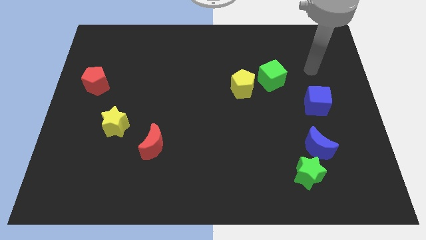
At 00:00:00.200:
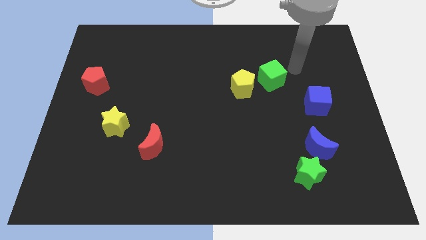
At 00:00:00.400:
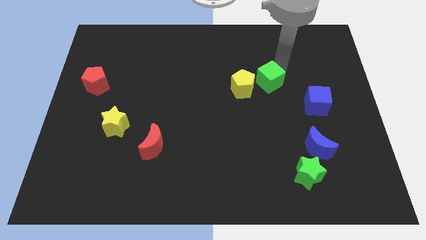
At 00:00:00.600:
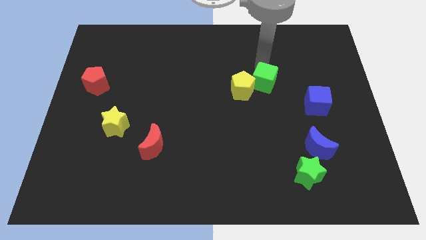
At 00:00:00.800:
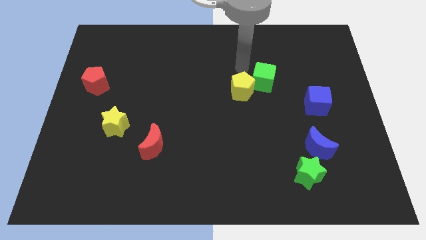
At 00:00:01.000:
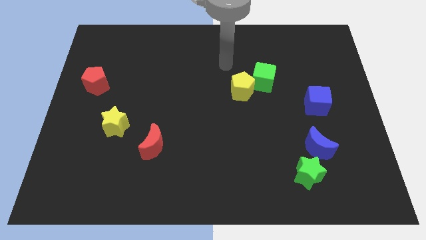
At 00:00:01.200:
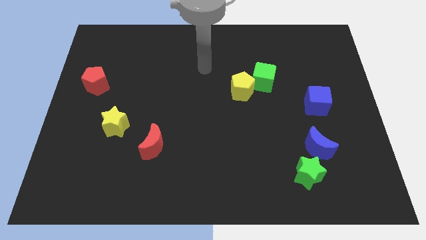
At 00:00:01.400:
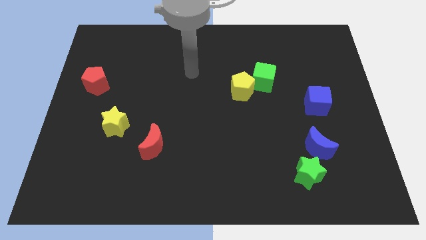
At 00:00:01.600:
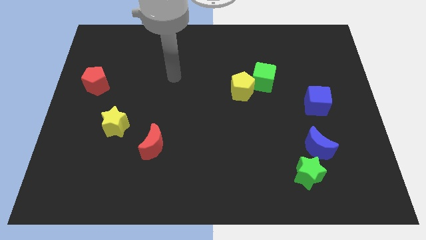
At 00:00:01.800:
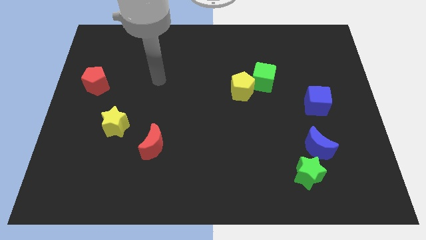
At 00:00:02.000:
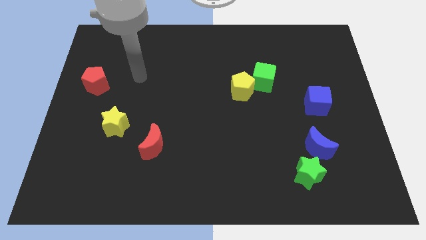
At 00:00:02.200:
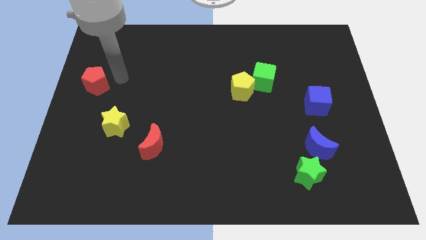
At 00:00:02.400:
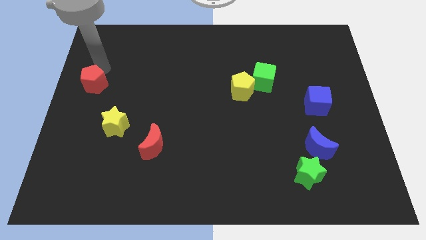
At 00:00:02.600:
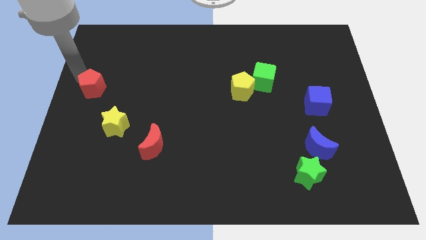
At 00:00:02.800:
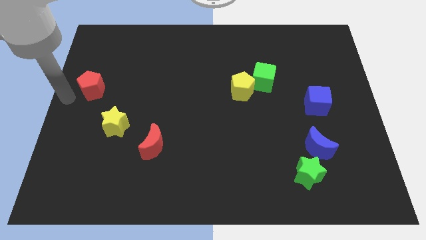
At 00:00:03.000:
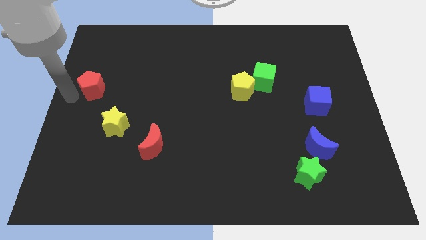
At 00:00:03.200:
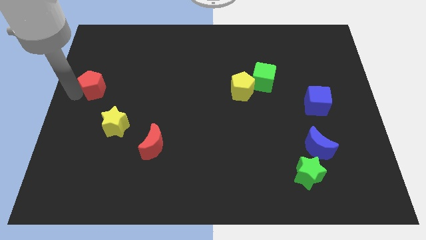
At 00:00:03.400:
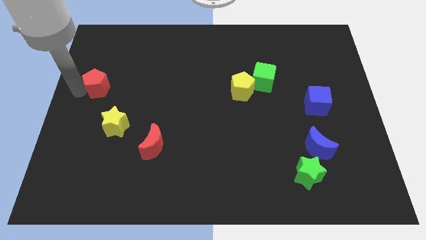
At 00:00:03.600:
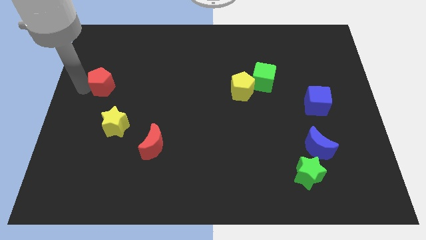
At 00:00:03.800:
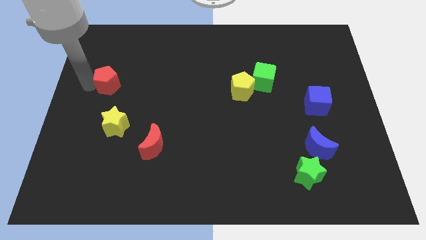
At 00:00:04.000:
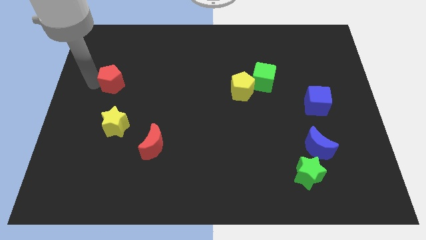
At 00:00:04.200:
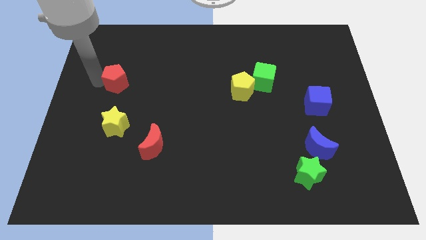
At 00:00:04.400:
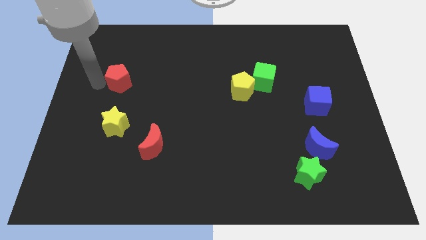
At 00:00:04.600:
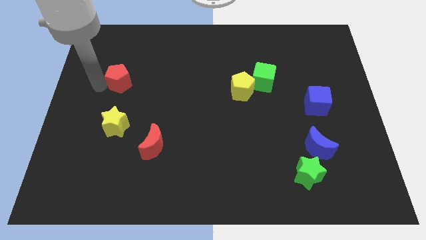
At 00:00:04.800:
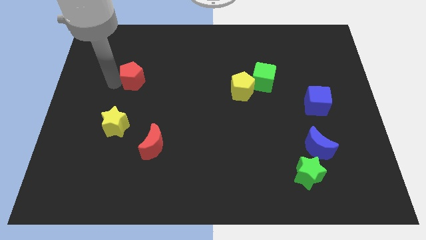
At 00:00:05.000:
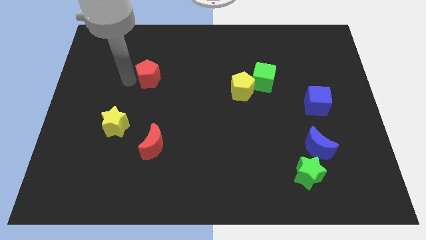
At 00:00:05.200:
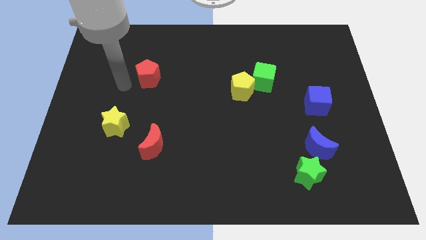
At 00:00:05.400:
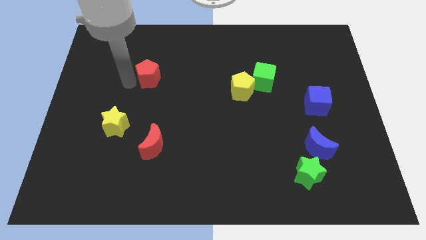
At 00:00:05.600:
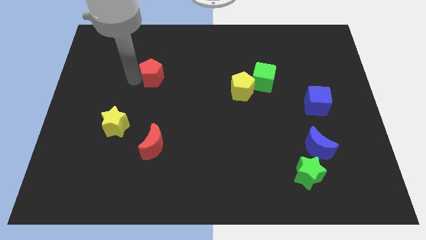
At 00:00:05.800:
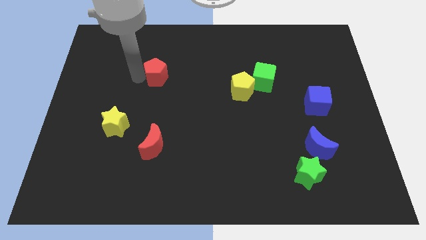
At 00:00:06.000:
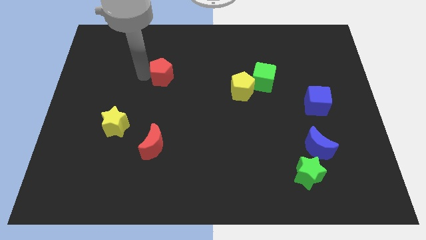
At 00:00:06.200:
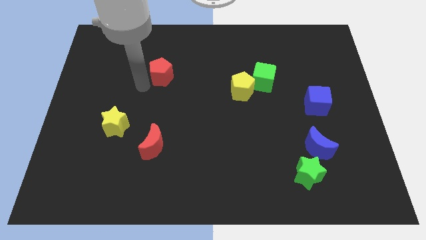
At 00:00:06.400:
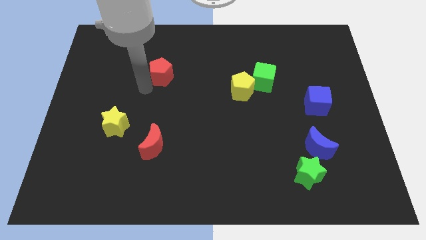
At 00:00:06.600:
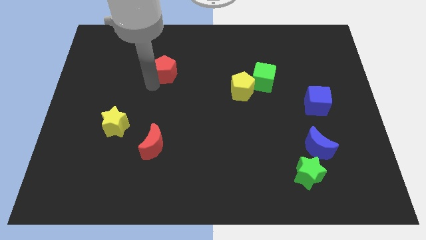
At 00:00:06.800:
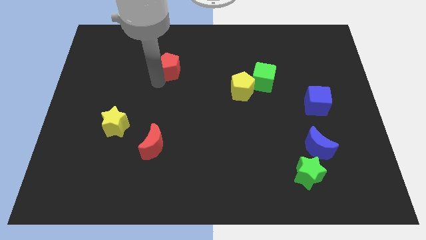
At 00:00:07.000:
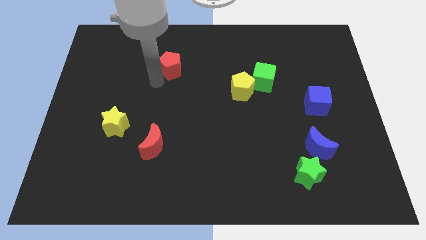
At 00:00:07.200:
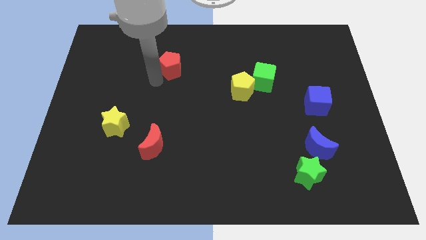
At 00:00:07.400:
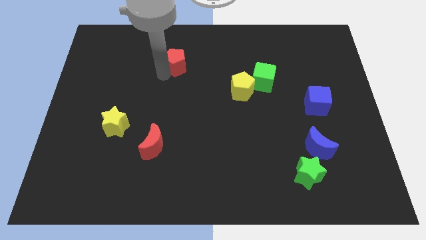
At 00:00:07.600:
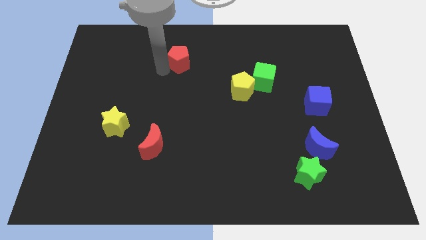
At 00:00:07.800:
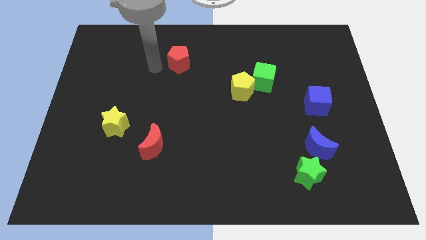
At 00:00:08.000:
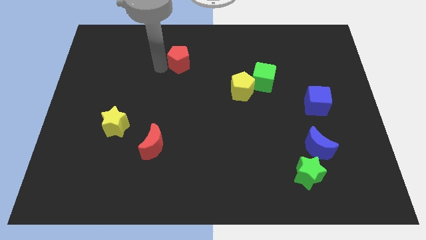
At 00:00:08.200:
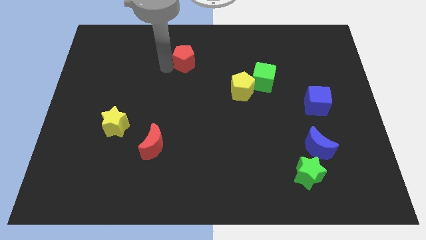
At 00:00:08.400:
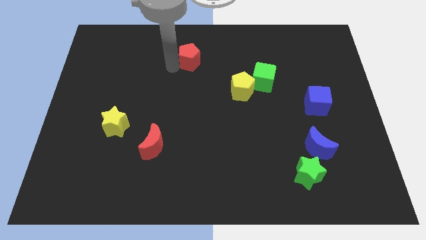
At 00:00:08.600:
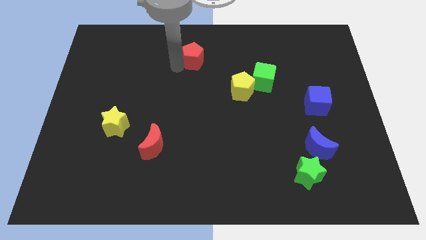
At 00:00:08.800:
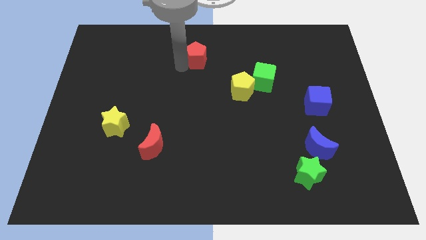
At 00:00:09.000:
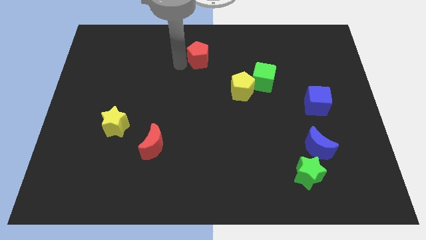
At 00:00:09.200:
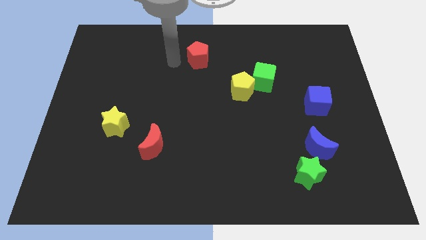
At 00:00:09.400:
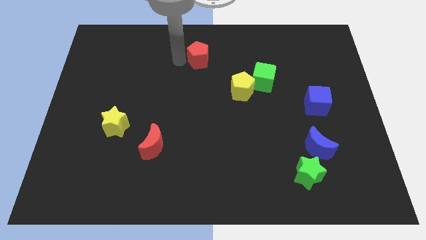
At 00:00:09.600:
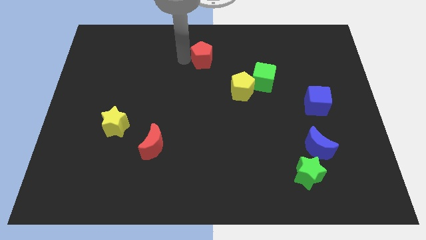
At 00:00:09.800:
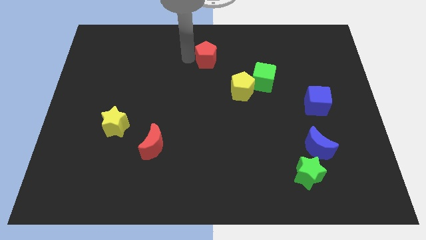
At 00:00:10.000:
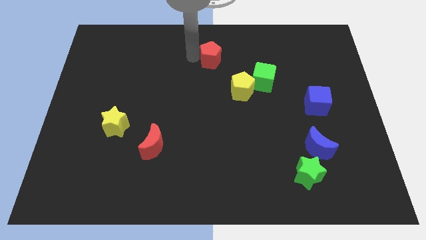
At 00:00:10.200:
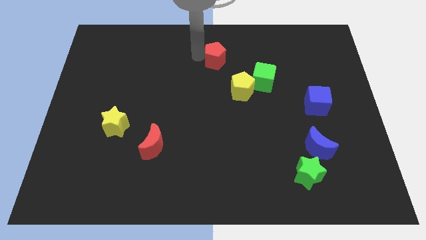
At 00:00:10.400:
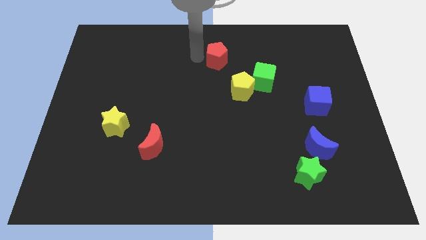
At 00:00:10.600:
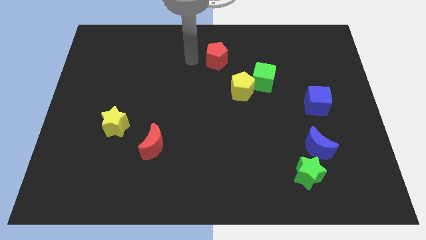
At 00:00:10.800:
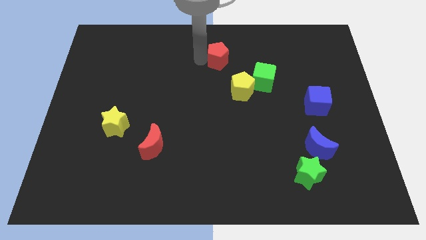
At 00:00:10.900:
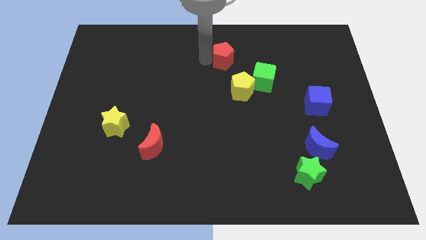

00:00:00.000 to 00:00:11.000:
slide the red pentagon to the top left side of the green cube

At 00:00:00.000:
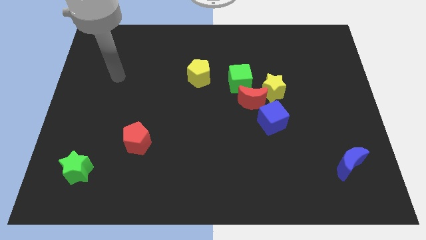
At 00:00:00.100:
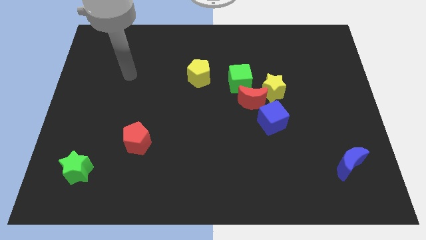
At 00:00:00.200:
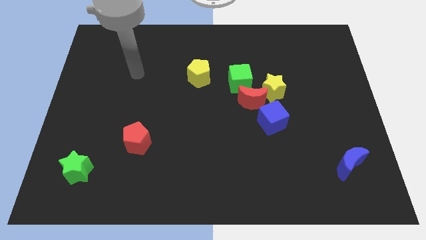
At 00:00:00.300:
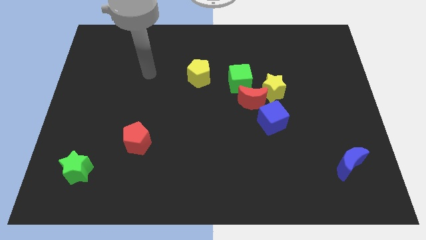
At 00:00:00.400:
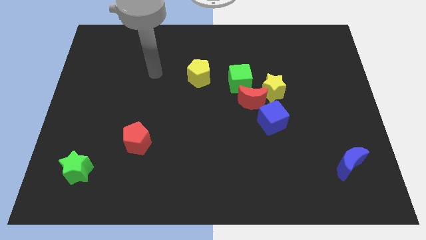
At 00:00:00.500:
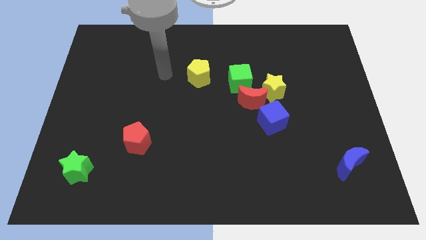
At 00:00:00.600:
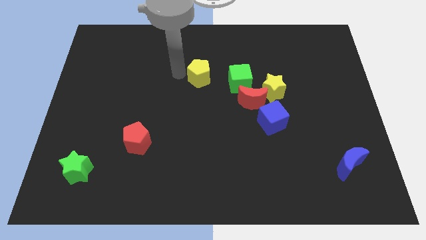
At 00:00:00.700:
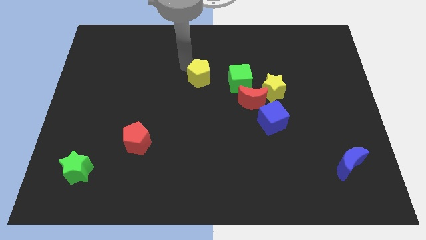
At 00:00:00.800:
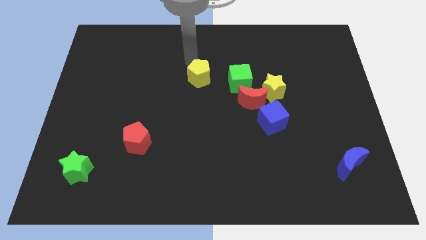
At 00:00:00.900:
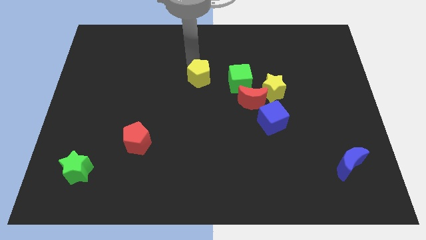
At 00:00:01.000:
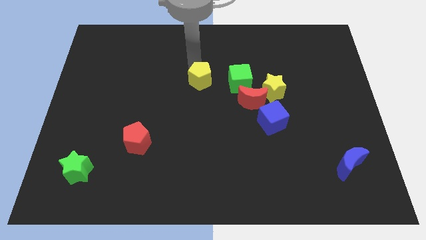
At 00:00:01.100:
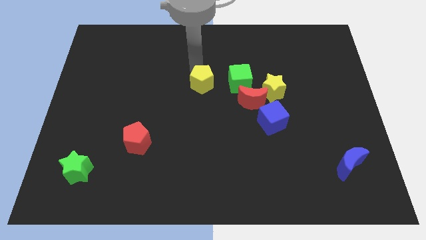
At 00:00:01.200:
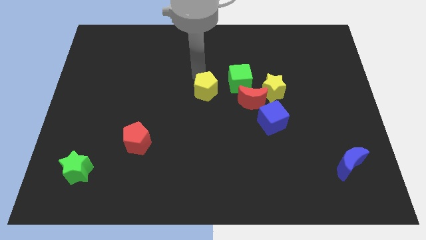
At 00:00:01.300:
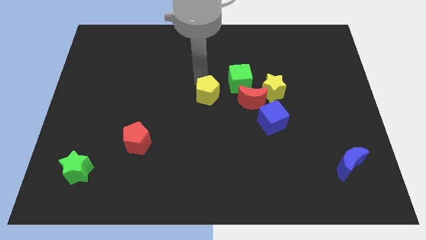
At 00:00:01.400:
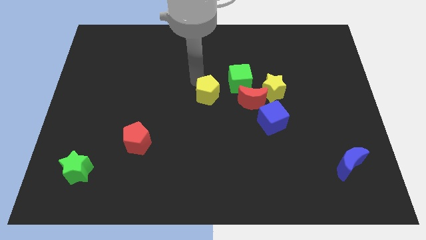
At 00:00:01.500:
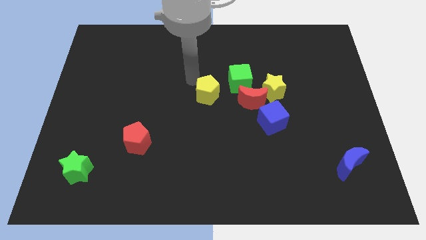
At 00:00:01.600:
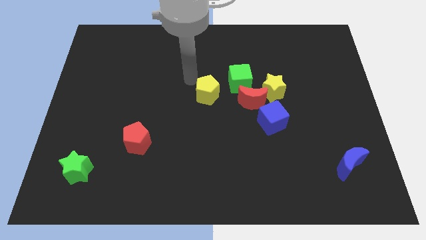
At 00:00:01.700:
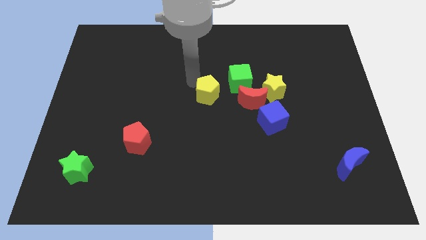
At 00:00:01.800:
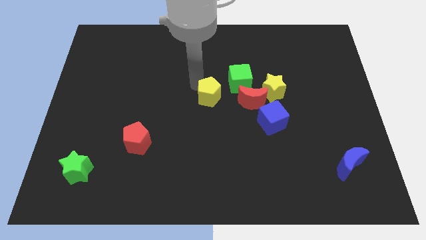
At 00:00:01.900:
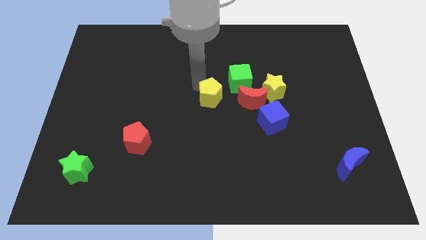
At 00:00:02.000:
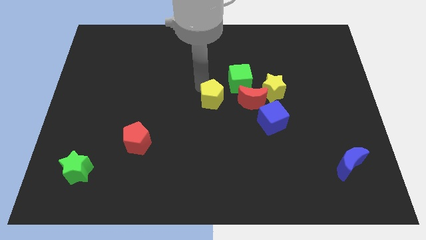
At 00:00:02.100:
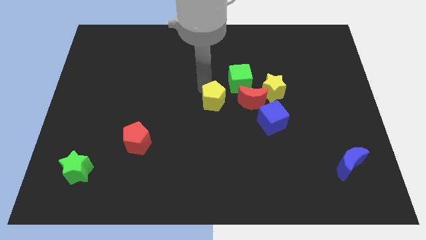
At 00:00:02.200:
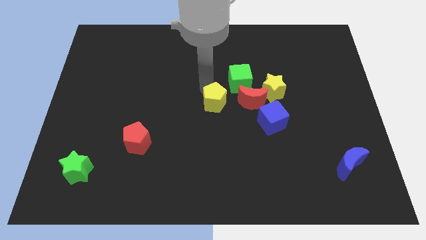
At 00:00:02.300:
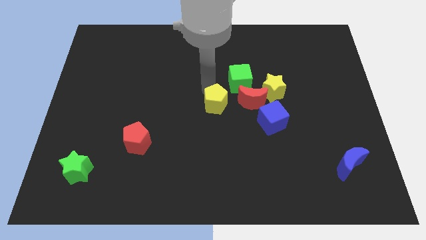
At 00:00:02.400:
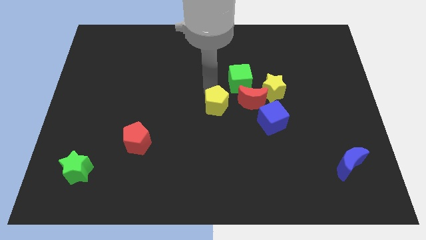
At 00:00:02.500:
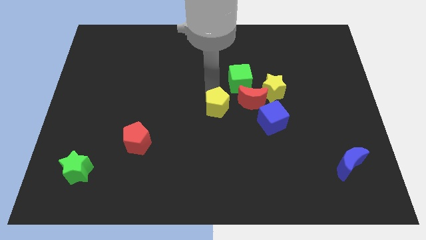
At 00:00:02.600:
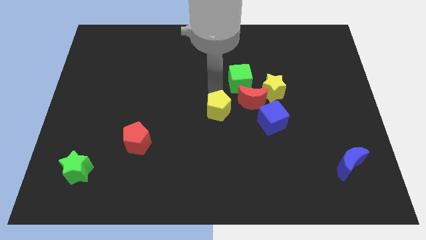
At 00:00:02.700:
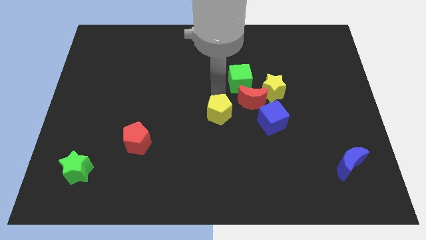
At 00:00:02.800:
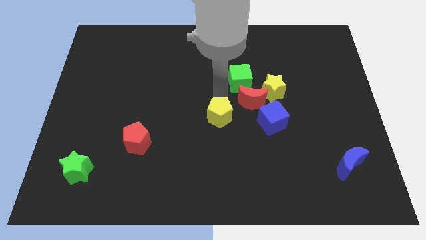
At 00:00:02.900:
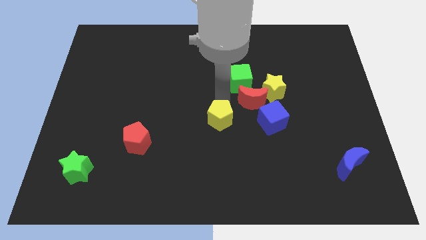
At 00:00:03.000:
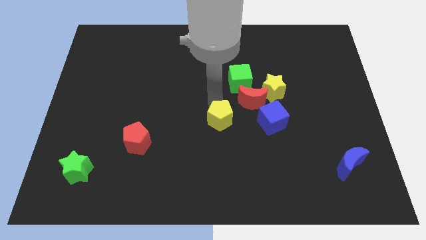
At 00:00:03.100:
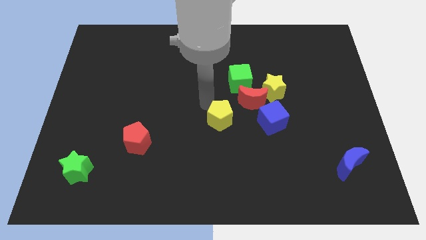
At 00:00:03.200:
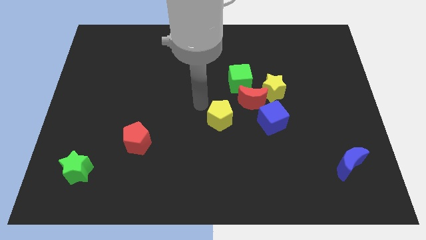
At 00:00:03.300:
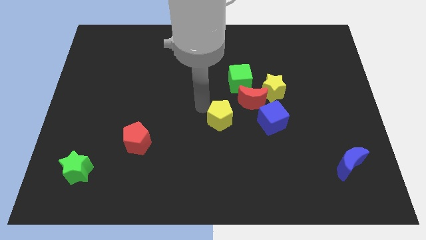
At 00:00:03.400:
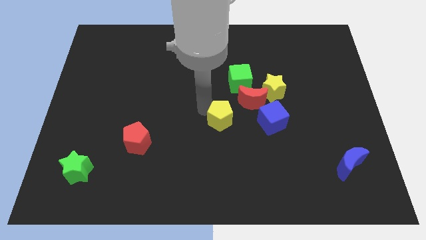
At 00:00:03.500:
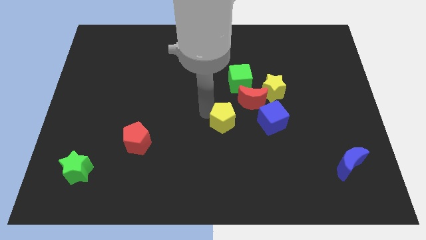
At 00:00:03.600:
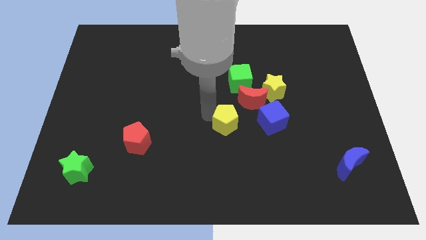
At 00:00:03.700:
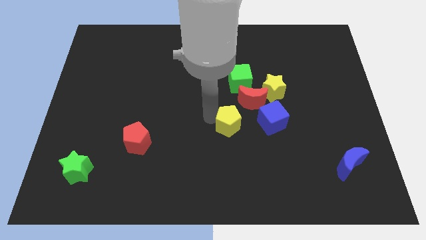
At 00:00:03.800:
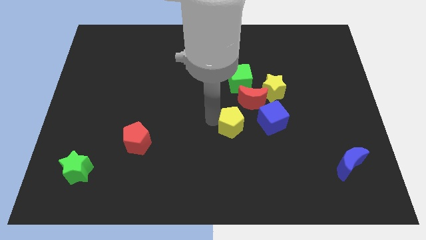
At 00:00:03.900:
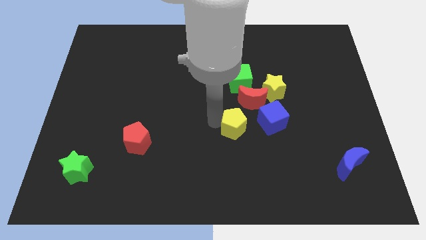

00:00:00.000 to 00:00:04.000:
slide the yellow pentagon to the bottom left side of the blue cube
